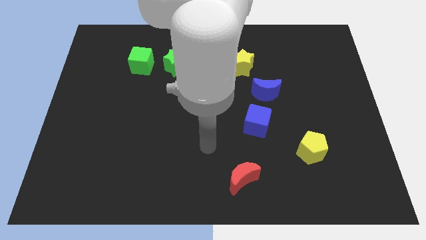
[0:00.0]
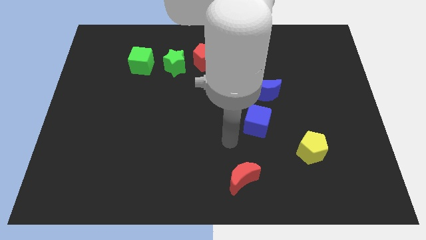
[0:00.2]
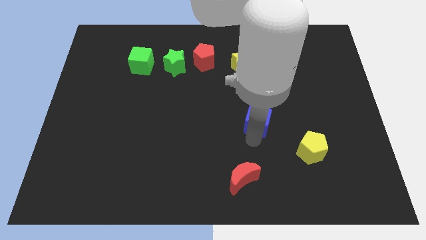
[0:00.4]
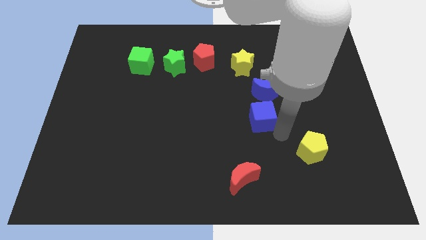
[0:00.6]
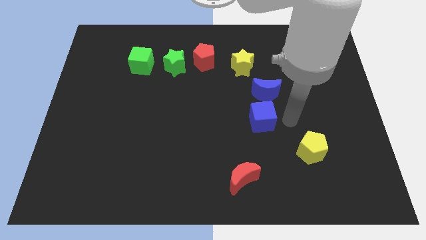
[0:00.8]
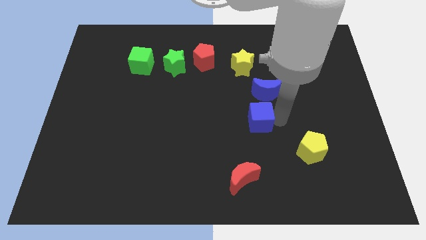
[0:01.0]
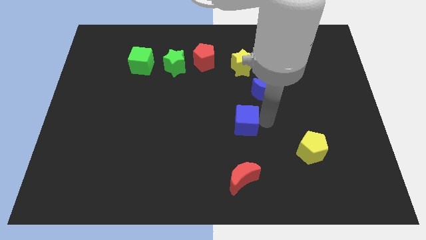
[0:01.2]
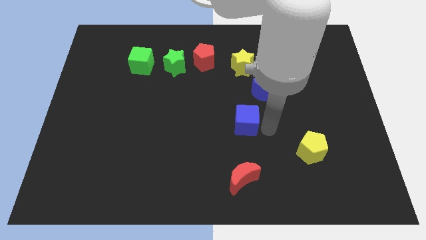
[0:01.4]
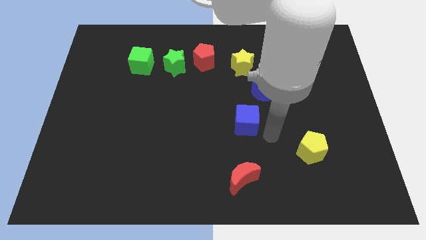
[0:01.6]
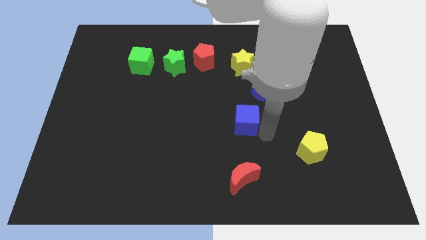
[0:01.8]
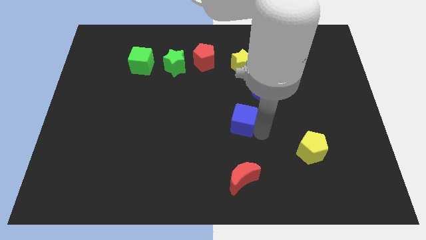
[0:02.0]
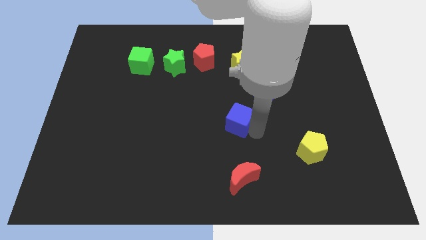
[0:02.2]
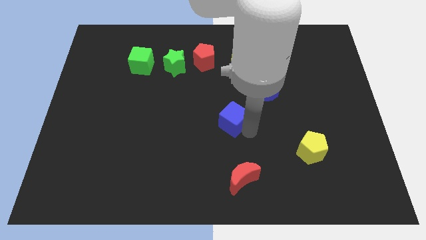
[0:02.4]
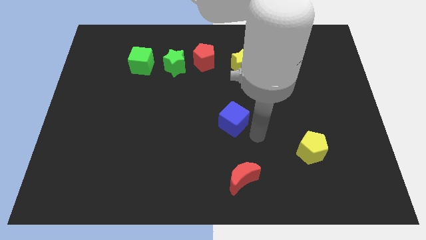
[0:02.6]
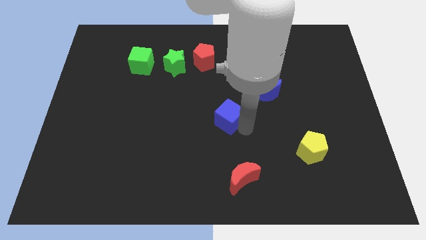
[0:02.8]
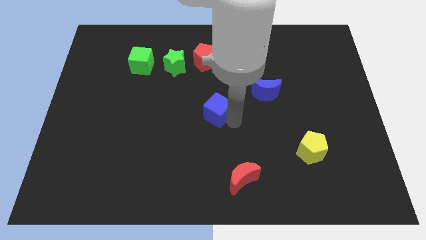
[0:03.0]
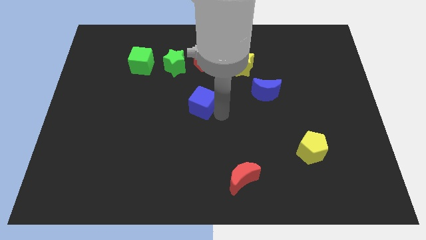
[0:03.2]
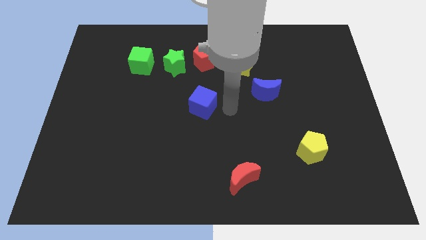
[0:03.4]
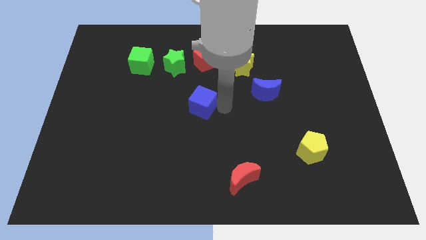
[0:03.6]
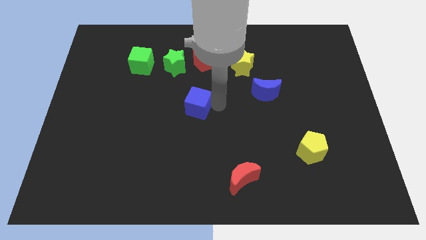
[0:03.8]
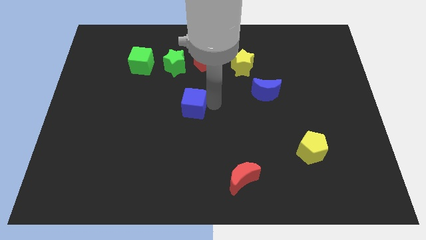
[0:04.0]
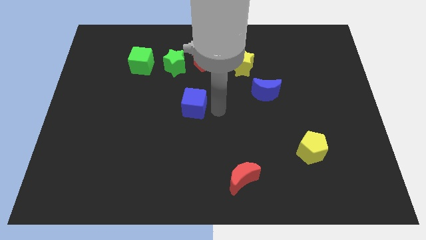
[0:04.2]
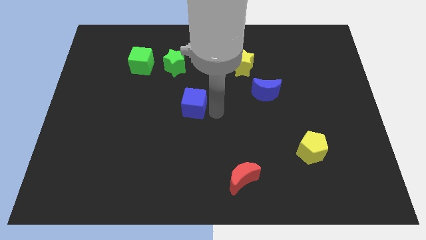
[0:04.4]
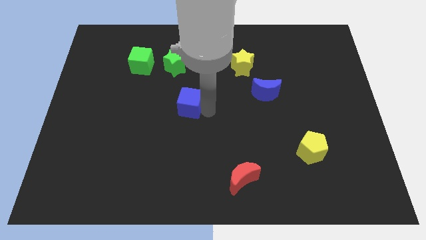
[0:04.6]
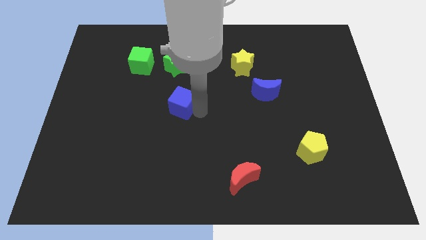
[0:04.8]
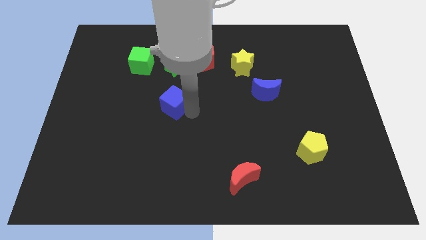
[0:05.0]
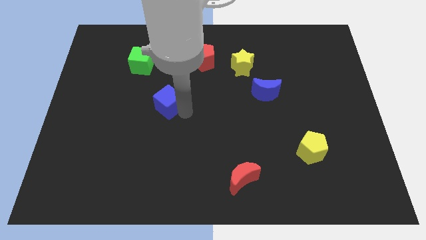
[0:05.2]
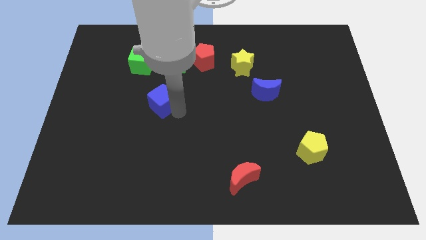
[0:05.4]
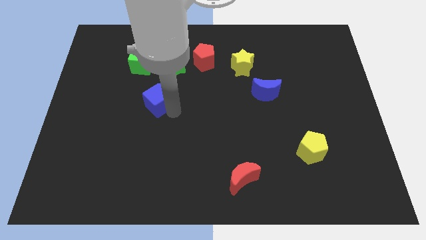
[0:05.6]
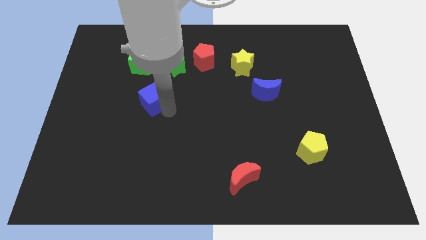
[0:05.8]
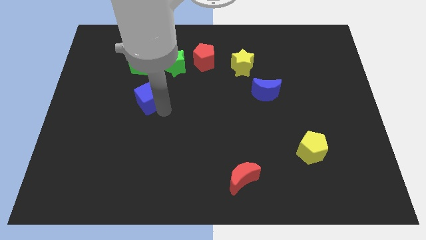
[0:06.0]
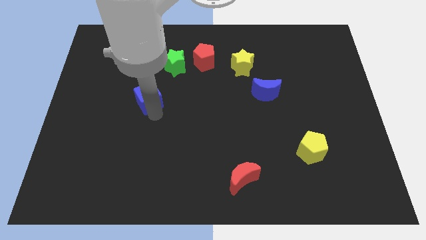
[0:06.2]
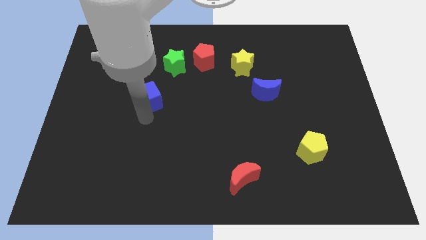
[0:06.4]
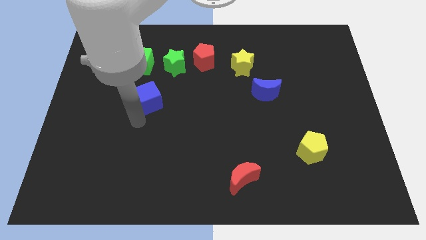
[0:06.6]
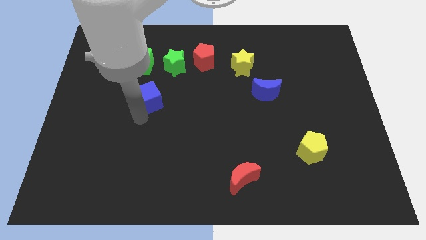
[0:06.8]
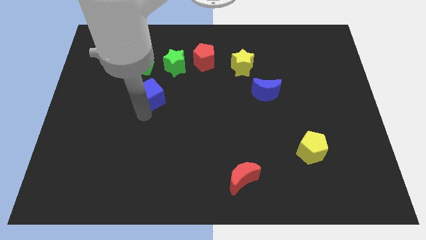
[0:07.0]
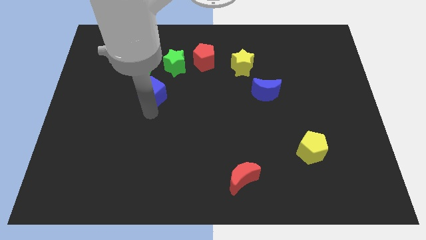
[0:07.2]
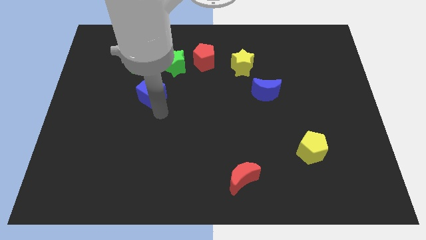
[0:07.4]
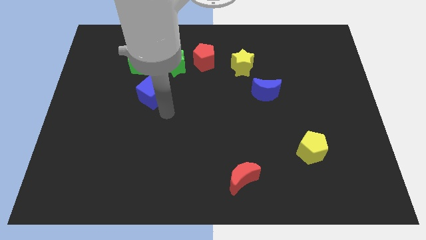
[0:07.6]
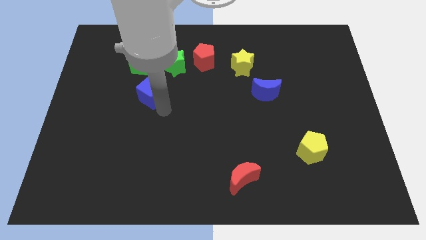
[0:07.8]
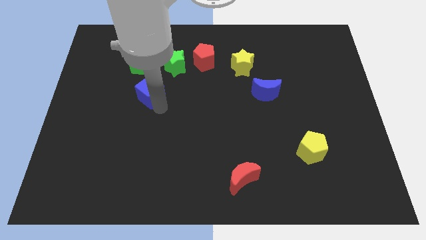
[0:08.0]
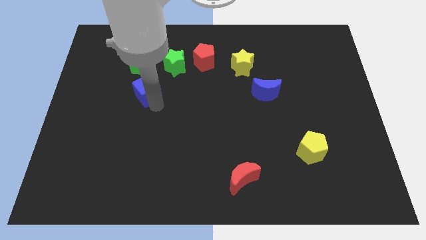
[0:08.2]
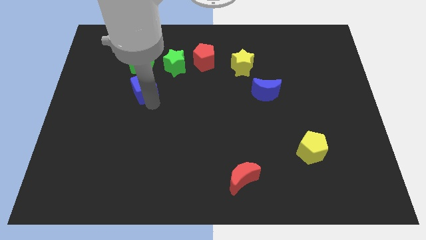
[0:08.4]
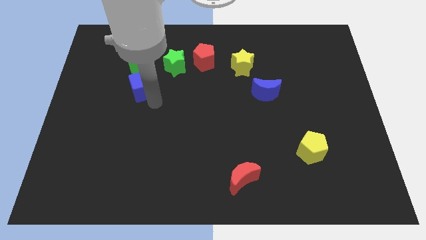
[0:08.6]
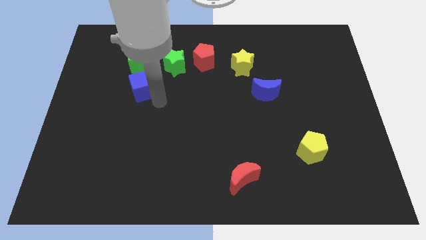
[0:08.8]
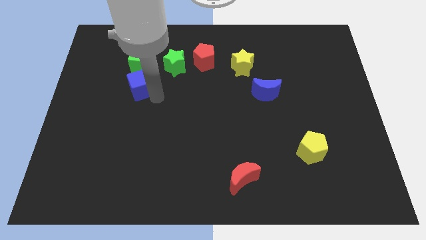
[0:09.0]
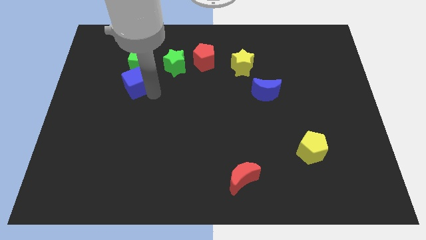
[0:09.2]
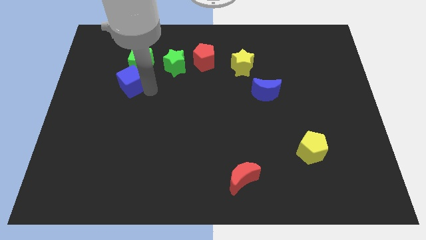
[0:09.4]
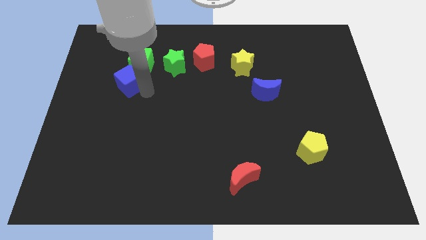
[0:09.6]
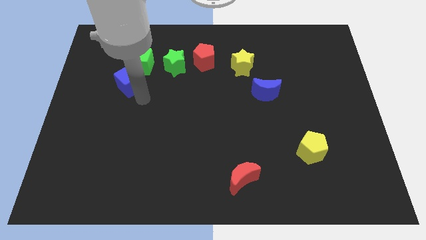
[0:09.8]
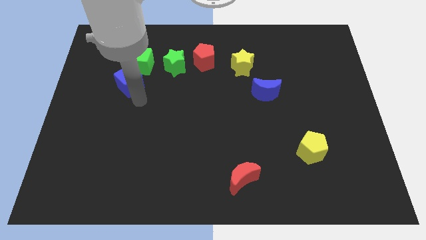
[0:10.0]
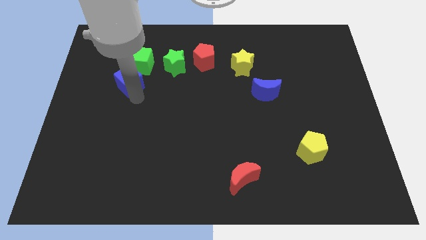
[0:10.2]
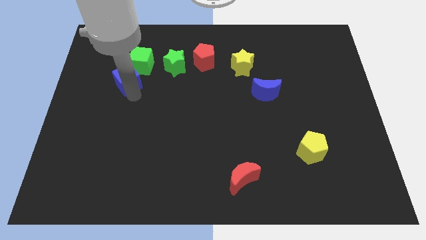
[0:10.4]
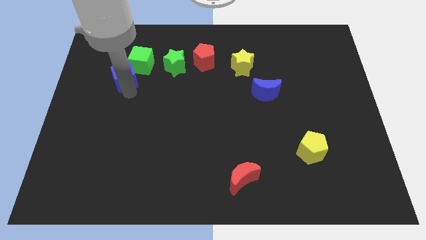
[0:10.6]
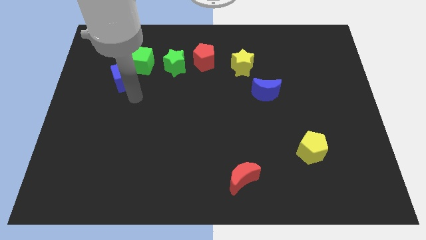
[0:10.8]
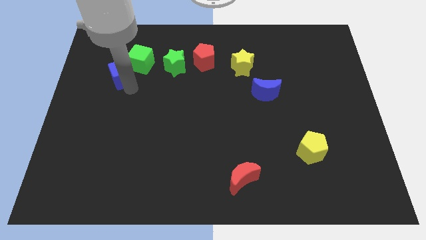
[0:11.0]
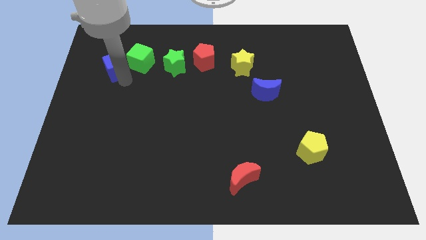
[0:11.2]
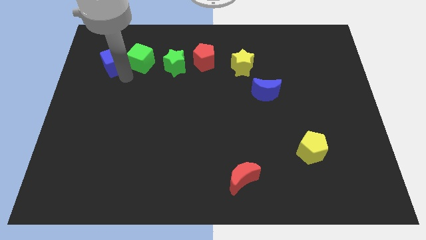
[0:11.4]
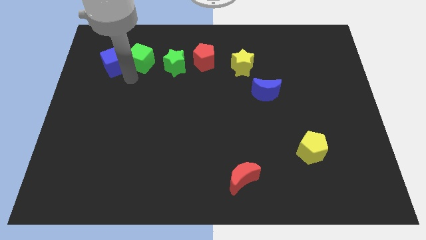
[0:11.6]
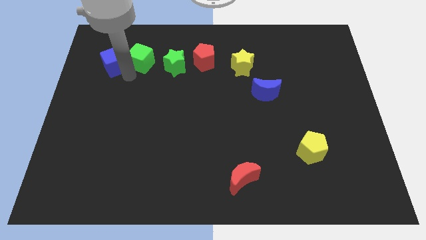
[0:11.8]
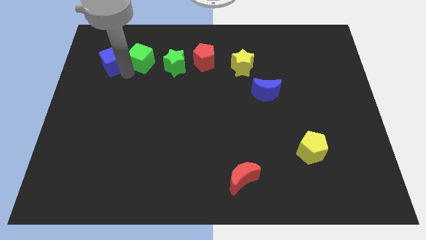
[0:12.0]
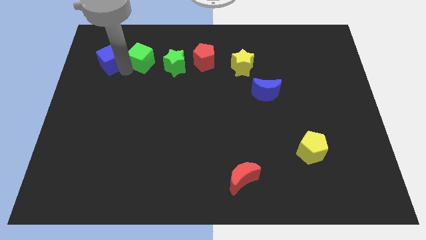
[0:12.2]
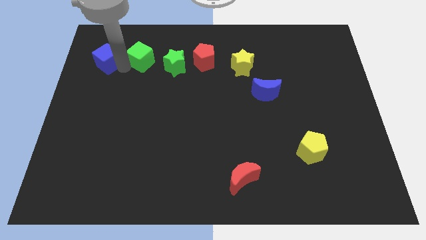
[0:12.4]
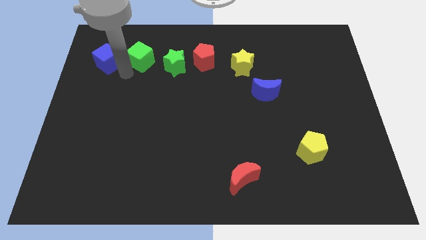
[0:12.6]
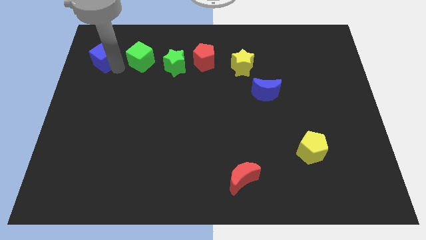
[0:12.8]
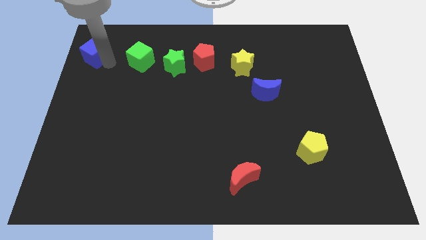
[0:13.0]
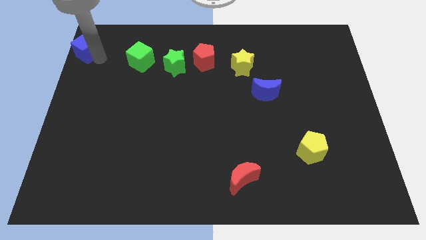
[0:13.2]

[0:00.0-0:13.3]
push the blue cube to the upper left corner
